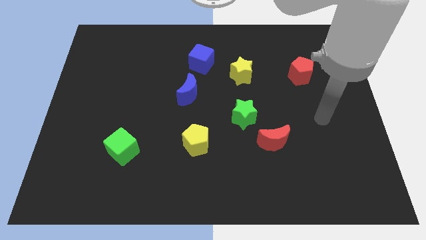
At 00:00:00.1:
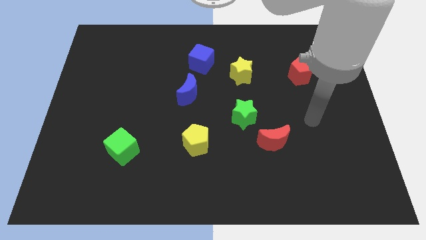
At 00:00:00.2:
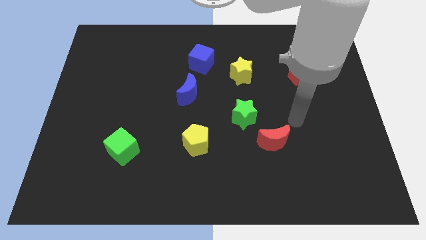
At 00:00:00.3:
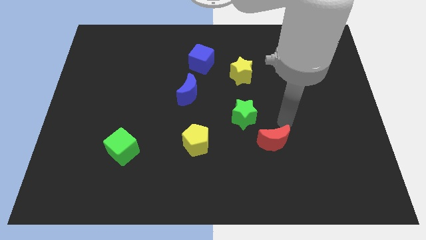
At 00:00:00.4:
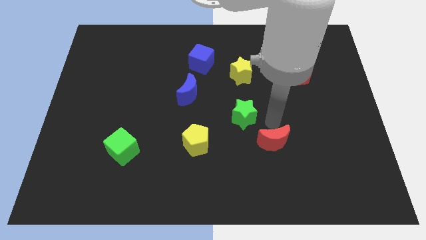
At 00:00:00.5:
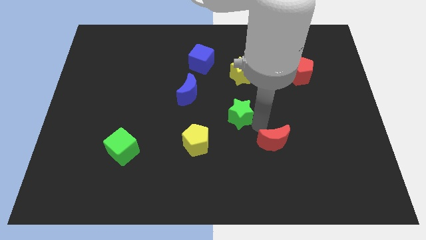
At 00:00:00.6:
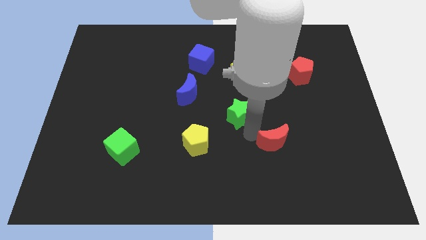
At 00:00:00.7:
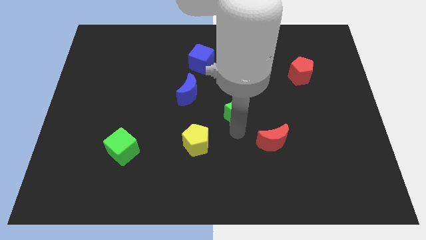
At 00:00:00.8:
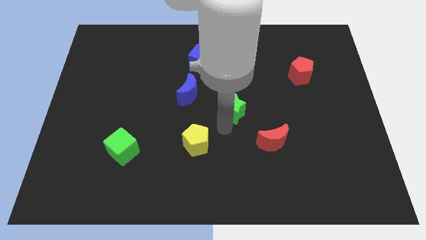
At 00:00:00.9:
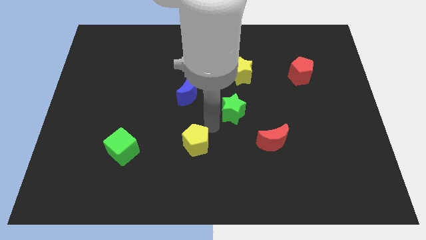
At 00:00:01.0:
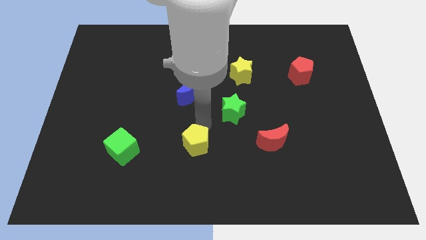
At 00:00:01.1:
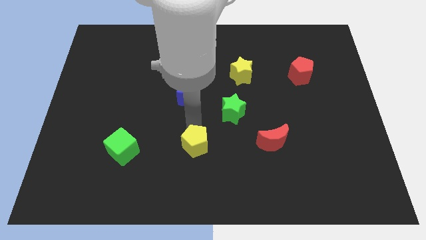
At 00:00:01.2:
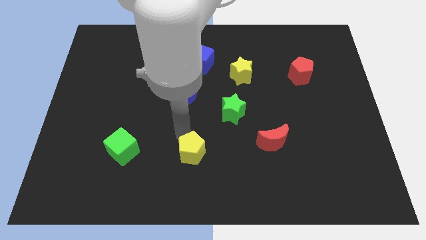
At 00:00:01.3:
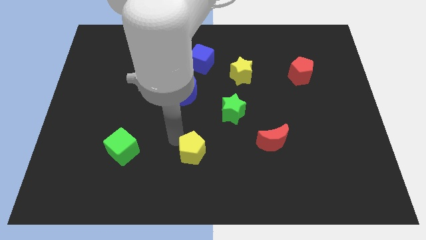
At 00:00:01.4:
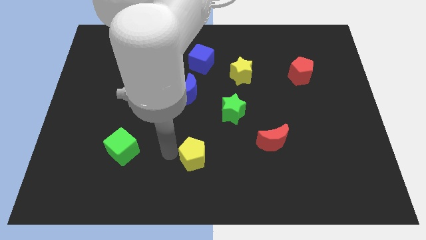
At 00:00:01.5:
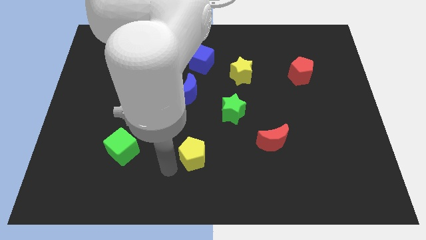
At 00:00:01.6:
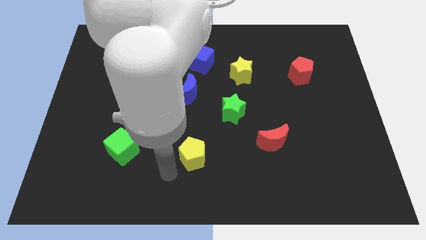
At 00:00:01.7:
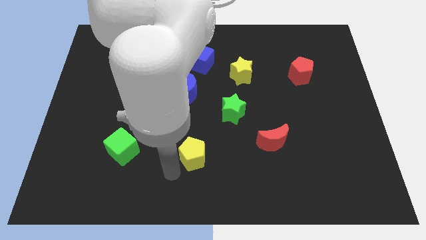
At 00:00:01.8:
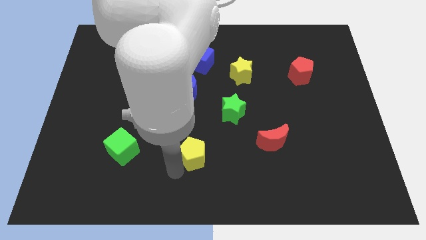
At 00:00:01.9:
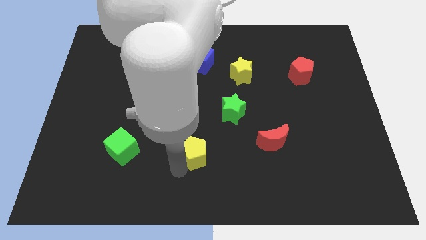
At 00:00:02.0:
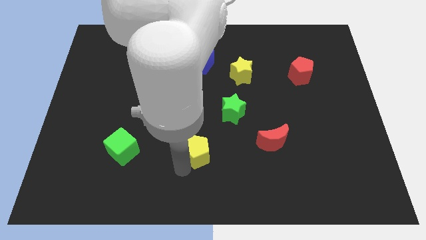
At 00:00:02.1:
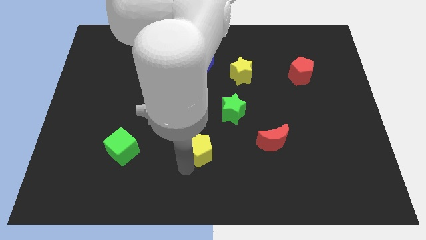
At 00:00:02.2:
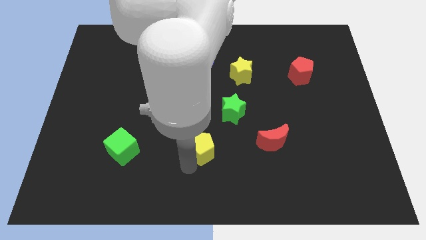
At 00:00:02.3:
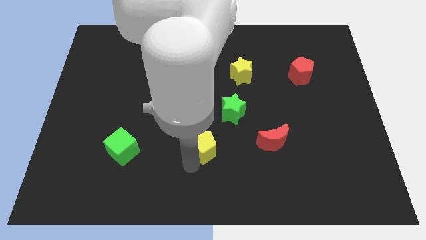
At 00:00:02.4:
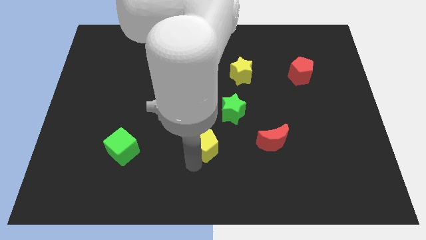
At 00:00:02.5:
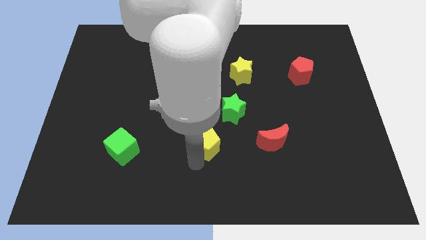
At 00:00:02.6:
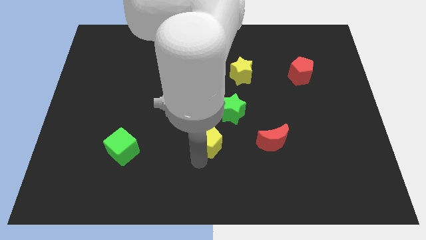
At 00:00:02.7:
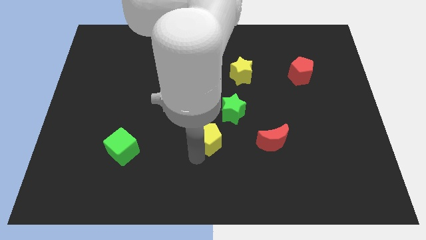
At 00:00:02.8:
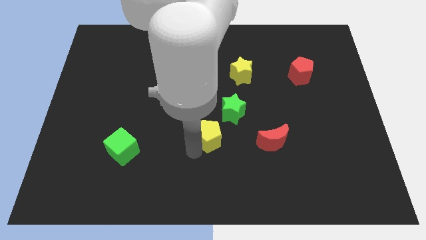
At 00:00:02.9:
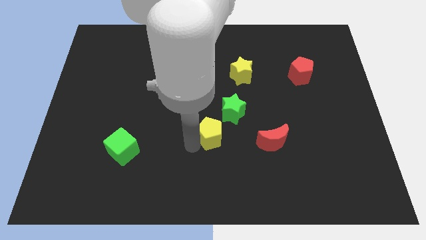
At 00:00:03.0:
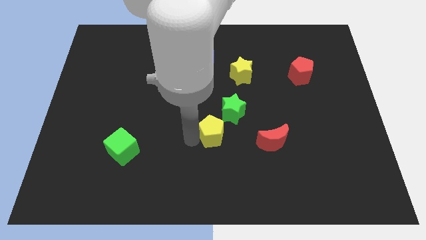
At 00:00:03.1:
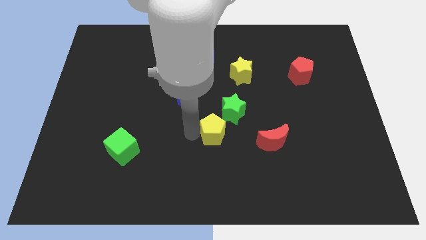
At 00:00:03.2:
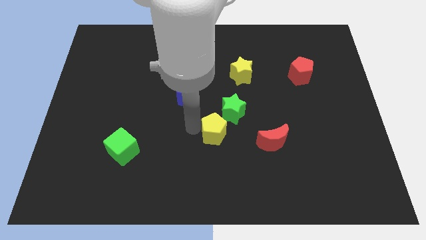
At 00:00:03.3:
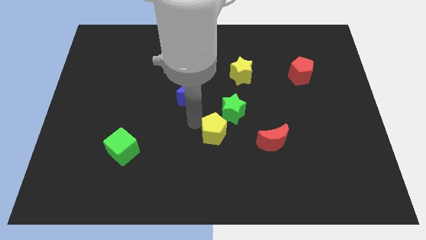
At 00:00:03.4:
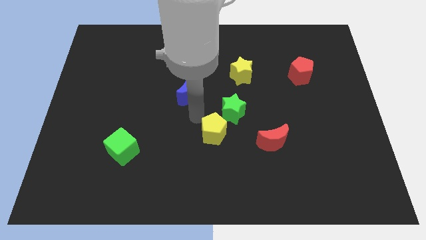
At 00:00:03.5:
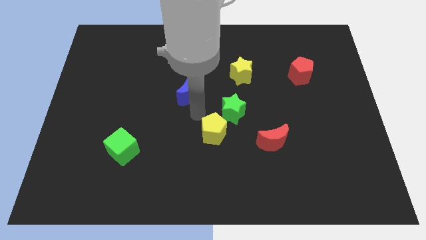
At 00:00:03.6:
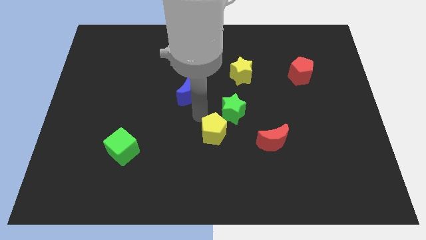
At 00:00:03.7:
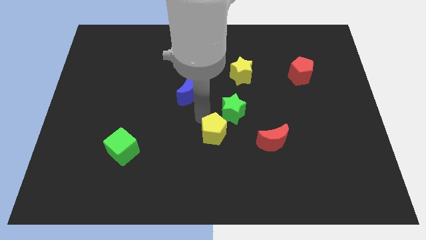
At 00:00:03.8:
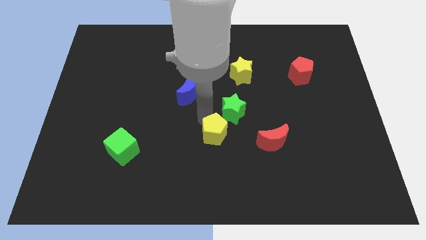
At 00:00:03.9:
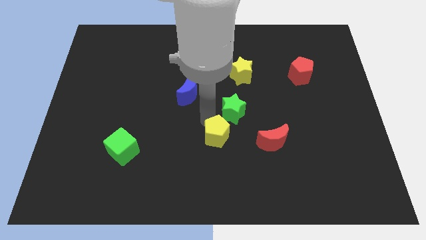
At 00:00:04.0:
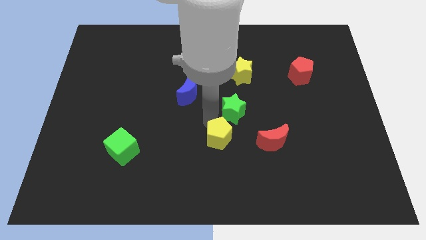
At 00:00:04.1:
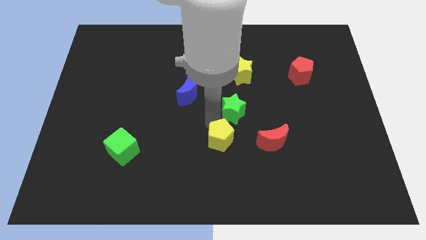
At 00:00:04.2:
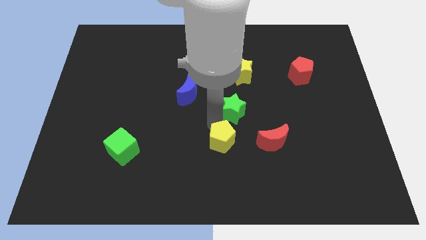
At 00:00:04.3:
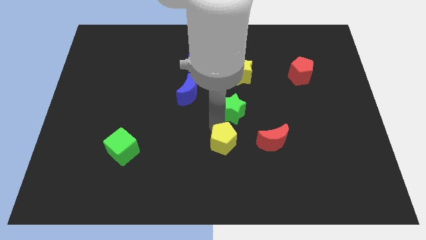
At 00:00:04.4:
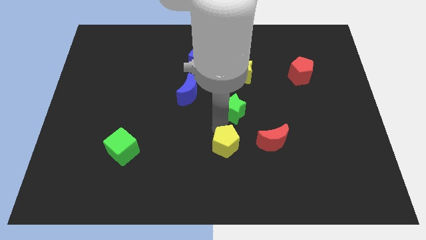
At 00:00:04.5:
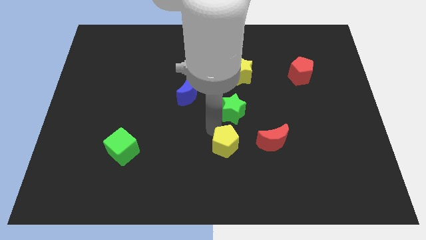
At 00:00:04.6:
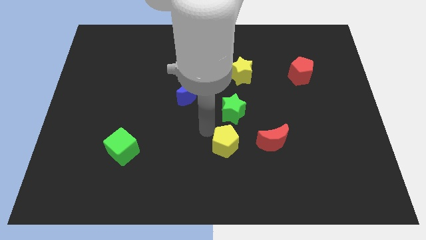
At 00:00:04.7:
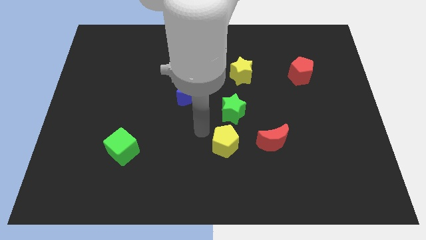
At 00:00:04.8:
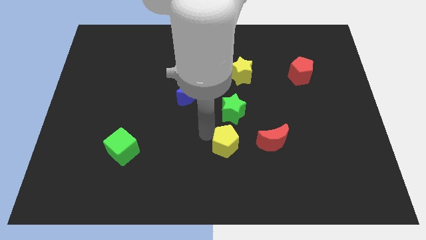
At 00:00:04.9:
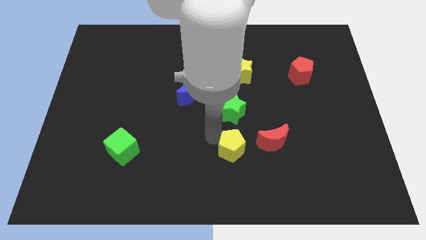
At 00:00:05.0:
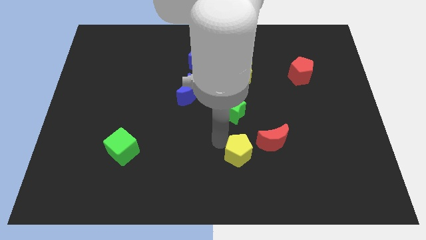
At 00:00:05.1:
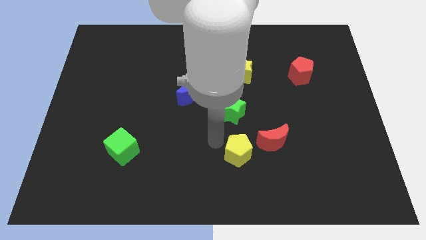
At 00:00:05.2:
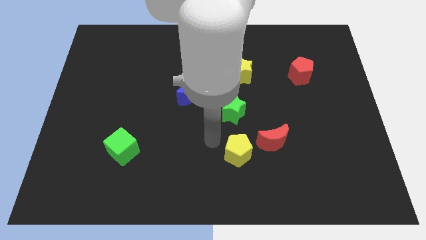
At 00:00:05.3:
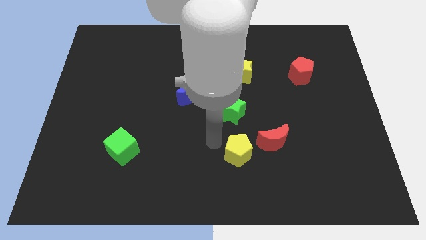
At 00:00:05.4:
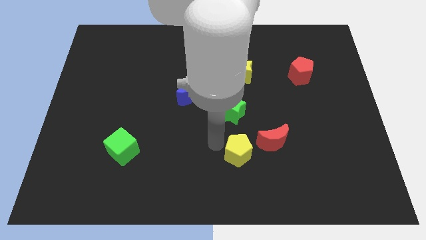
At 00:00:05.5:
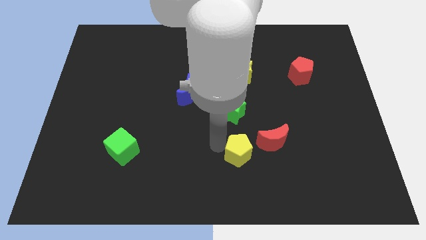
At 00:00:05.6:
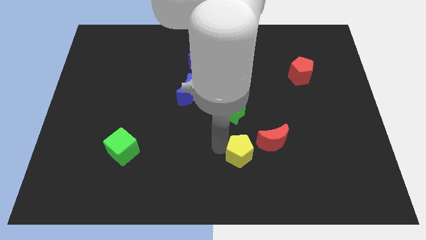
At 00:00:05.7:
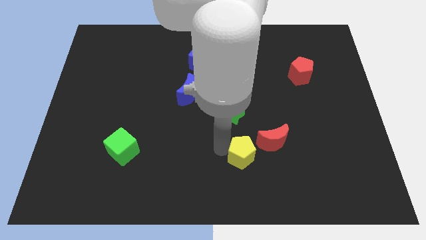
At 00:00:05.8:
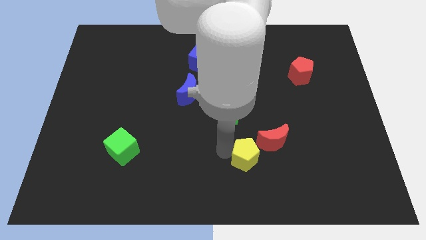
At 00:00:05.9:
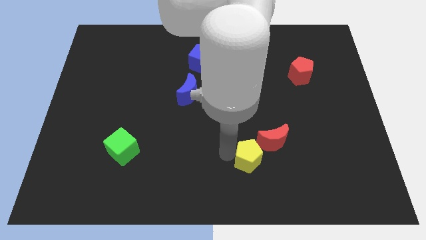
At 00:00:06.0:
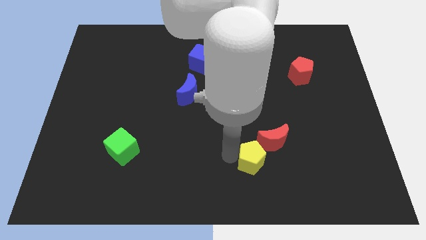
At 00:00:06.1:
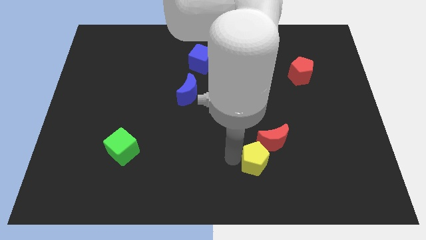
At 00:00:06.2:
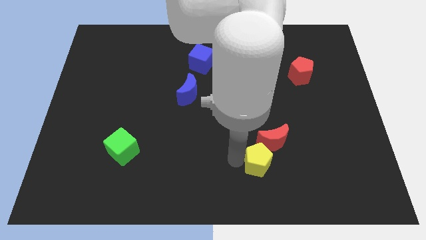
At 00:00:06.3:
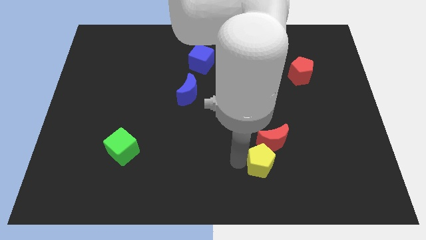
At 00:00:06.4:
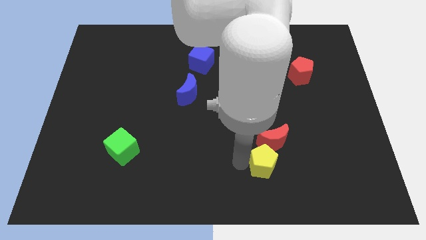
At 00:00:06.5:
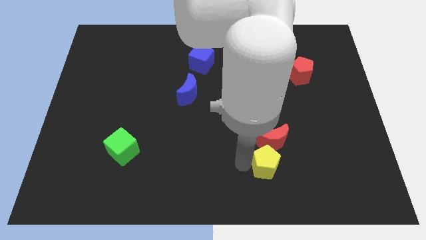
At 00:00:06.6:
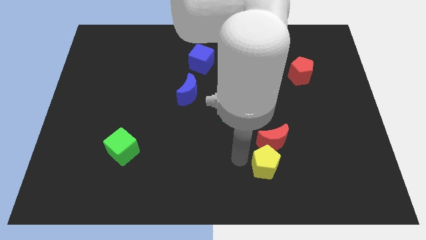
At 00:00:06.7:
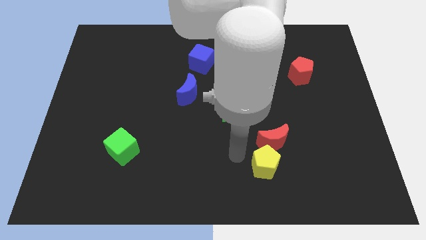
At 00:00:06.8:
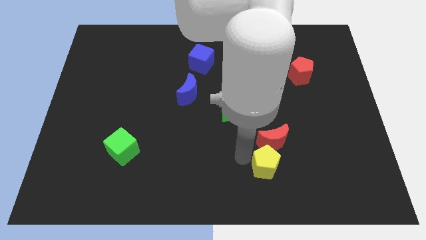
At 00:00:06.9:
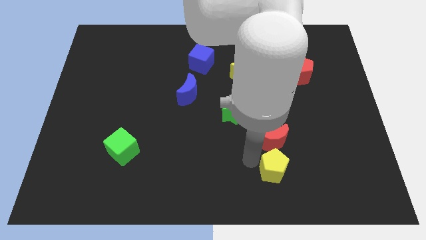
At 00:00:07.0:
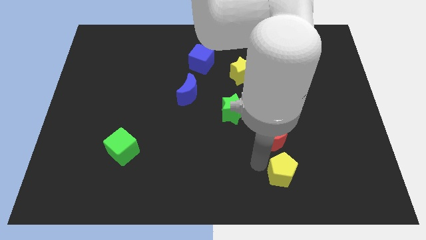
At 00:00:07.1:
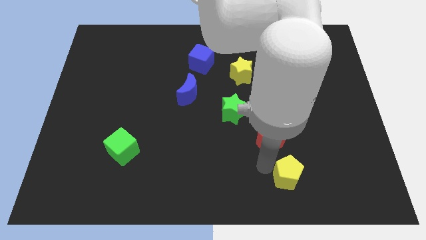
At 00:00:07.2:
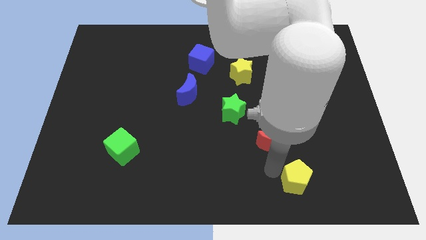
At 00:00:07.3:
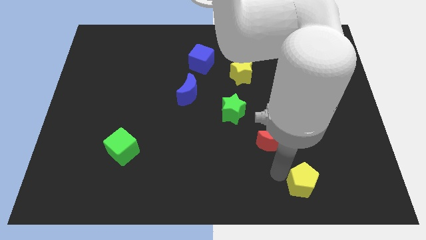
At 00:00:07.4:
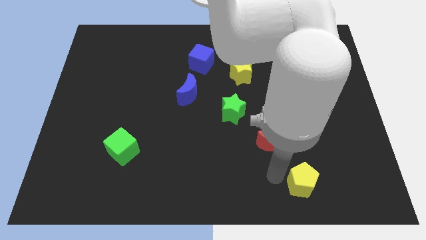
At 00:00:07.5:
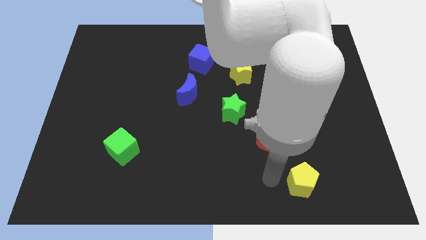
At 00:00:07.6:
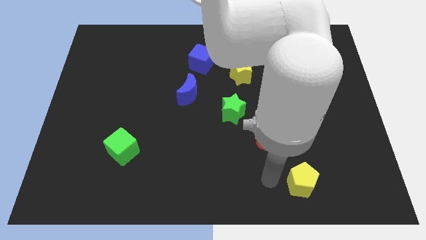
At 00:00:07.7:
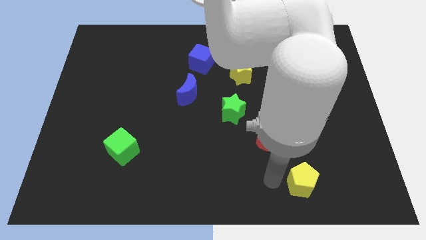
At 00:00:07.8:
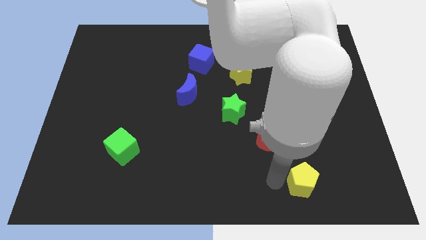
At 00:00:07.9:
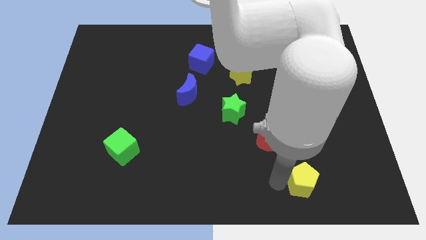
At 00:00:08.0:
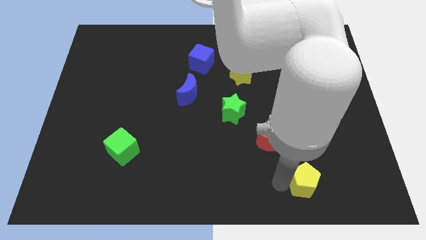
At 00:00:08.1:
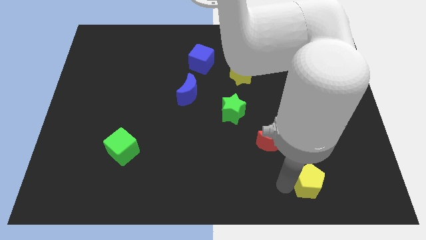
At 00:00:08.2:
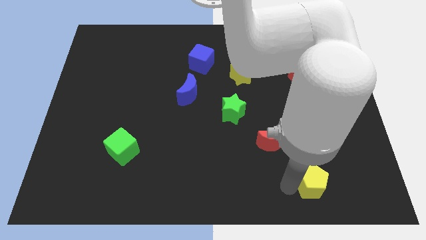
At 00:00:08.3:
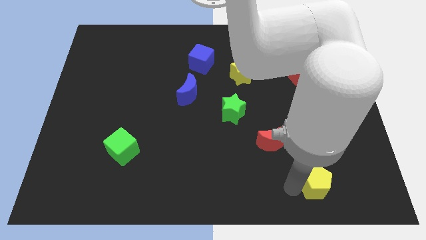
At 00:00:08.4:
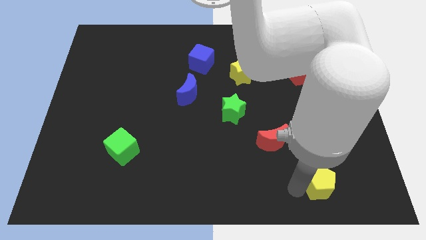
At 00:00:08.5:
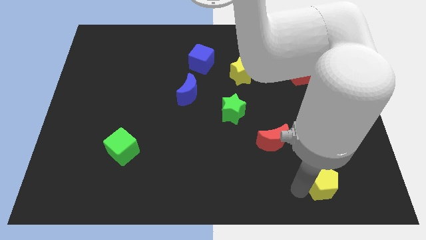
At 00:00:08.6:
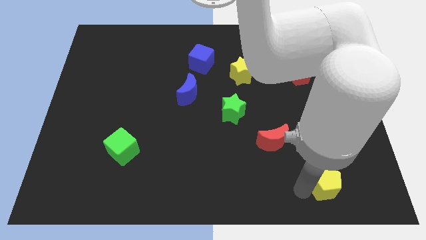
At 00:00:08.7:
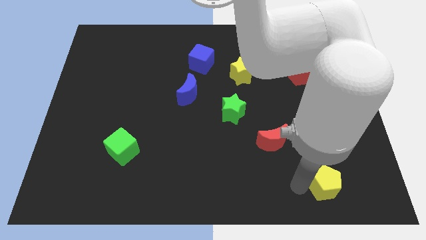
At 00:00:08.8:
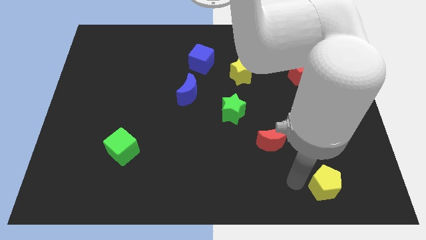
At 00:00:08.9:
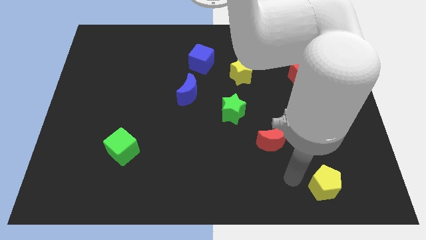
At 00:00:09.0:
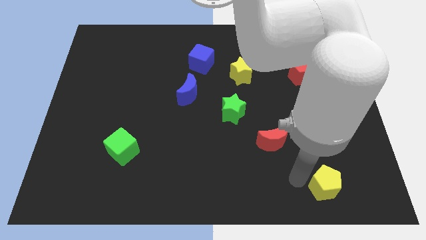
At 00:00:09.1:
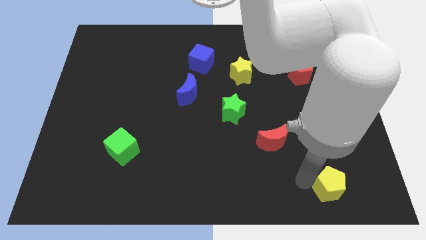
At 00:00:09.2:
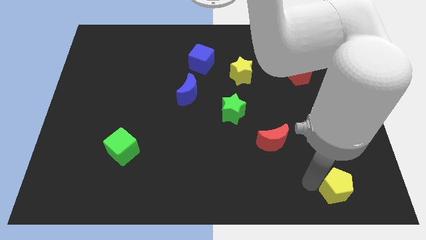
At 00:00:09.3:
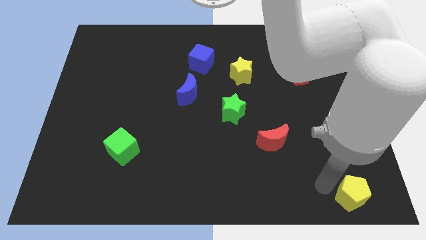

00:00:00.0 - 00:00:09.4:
move the yellow pentagon to the lower right corner
